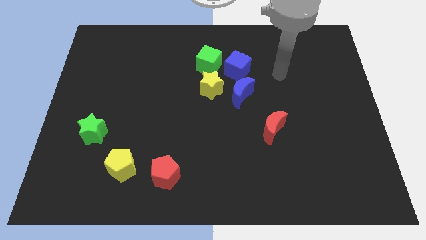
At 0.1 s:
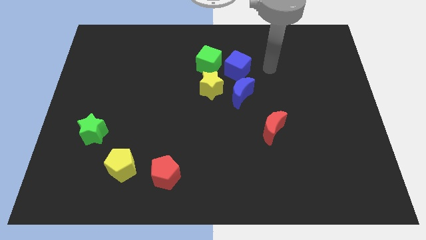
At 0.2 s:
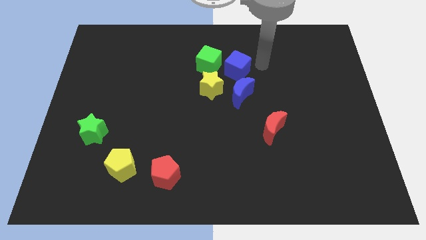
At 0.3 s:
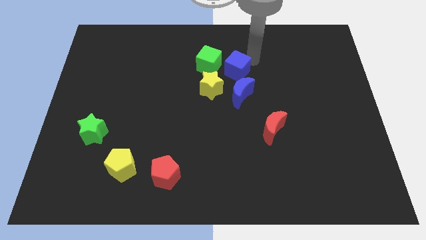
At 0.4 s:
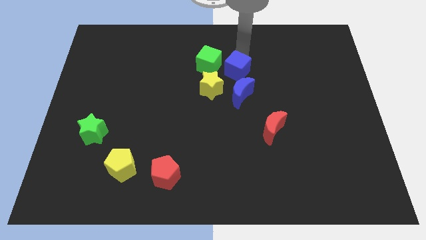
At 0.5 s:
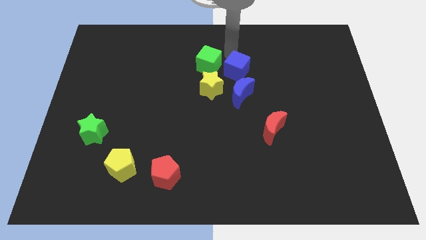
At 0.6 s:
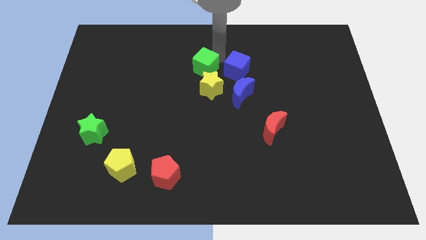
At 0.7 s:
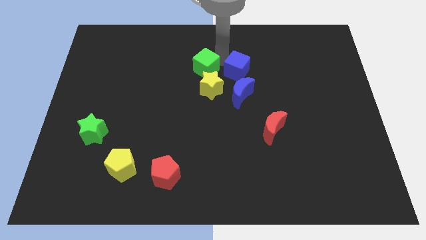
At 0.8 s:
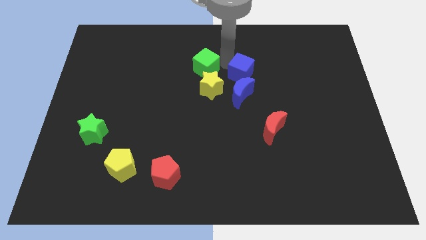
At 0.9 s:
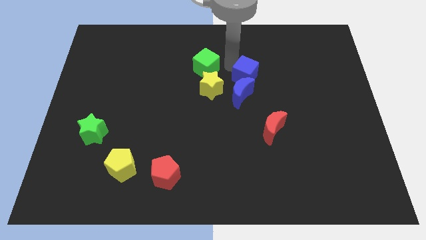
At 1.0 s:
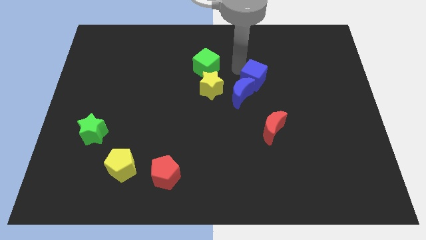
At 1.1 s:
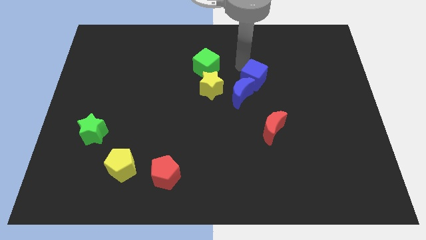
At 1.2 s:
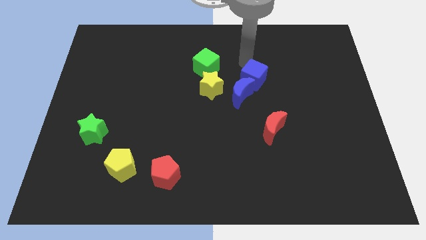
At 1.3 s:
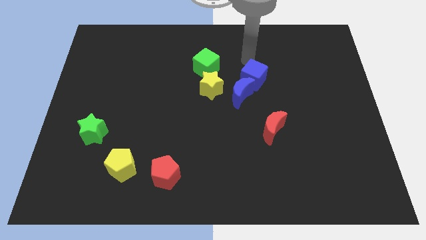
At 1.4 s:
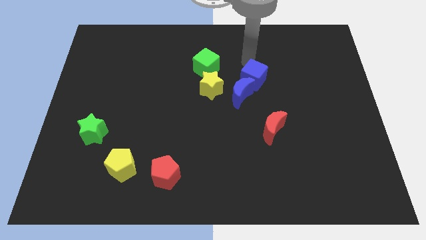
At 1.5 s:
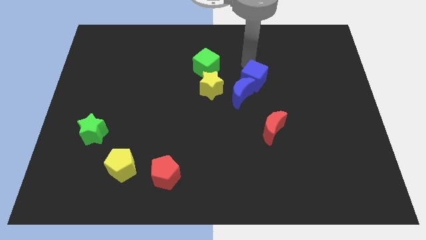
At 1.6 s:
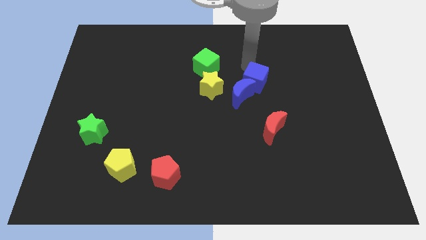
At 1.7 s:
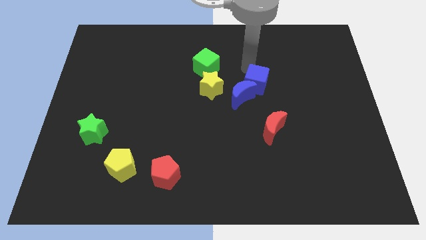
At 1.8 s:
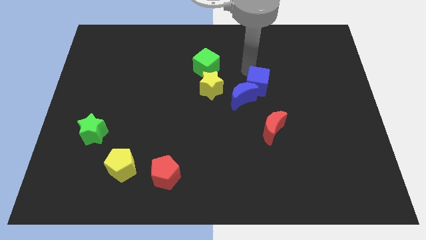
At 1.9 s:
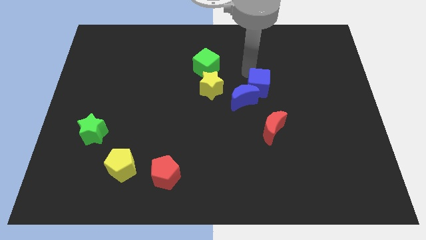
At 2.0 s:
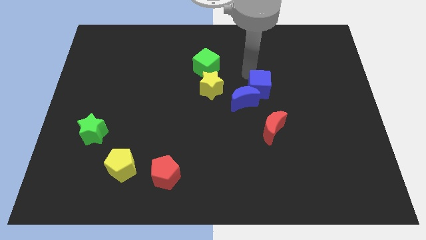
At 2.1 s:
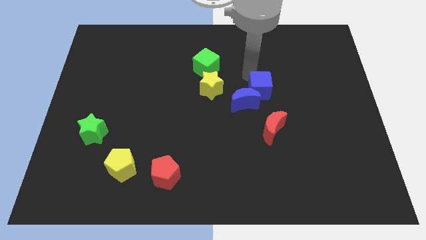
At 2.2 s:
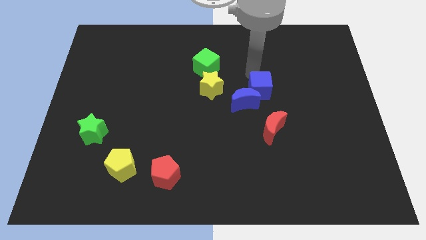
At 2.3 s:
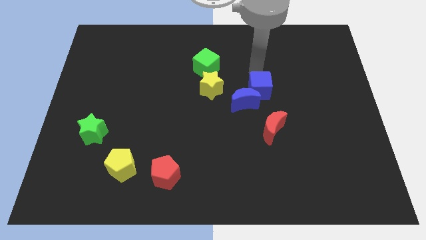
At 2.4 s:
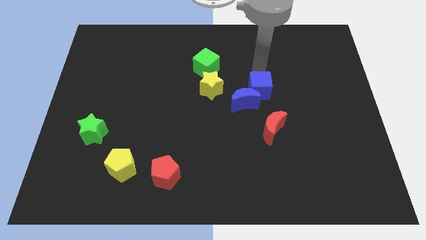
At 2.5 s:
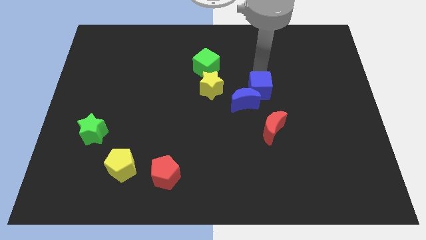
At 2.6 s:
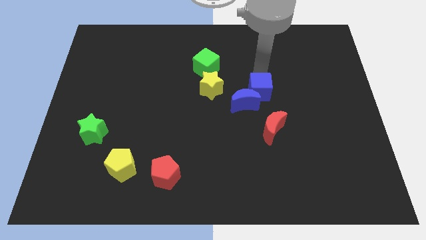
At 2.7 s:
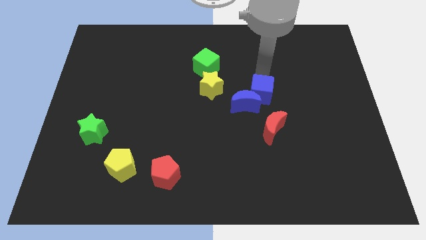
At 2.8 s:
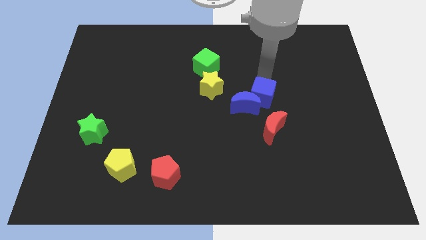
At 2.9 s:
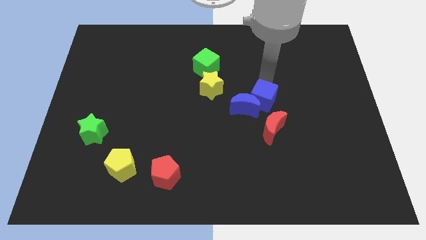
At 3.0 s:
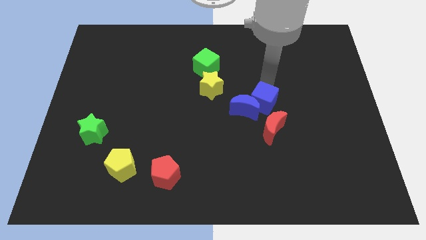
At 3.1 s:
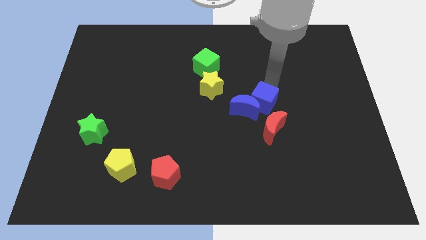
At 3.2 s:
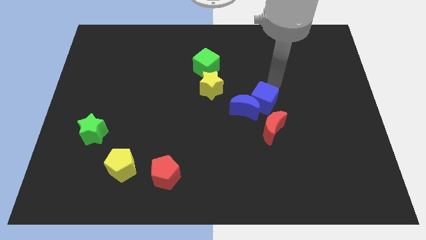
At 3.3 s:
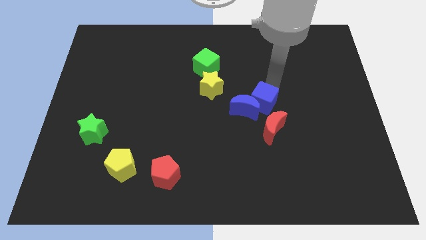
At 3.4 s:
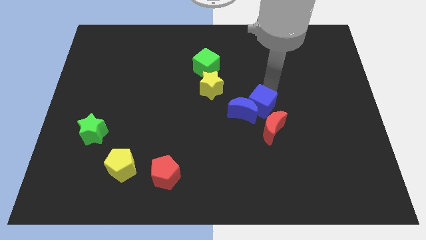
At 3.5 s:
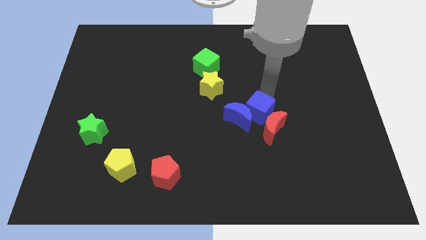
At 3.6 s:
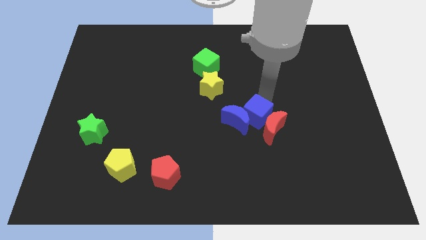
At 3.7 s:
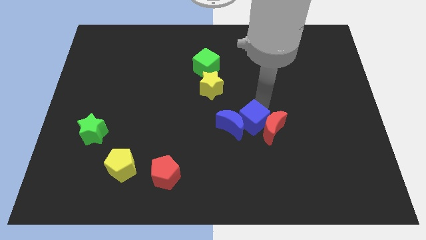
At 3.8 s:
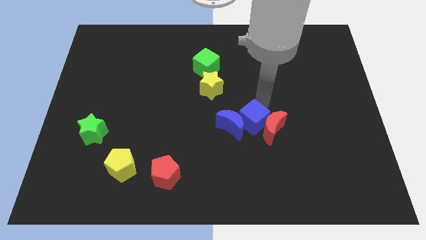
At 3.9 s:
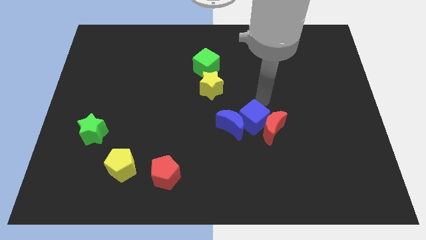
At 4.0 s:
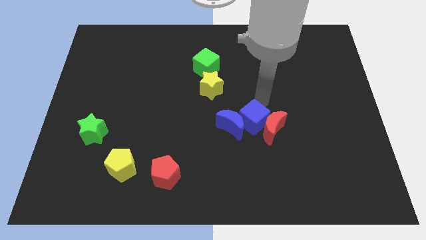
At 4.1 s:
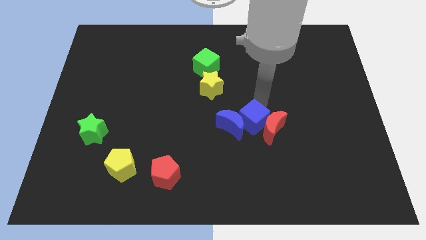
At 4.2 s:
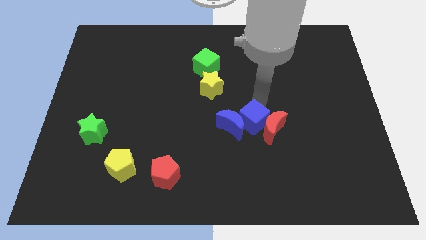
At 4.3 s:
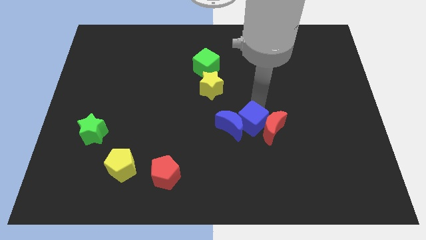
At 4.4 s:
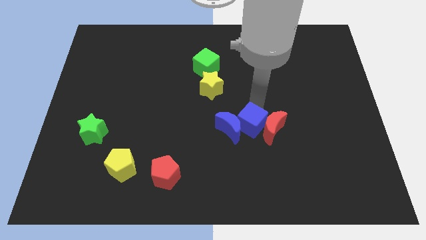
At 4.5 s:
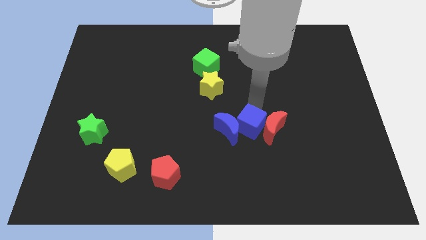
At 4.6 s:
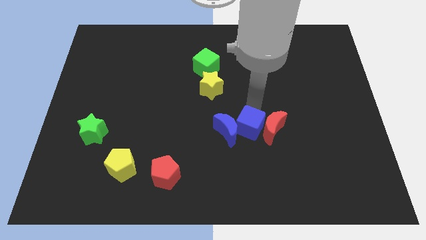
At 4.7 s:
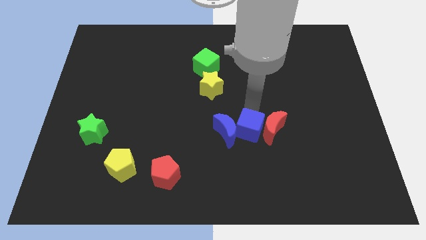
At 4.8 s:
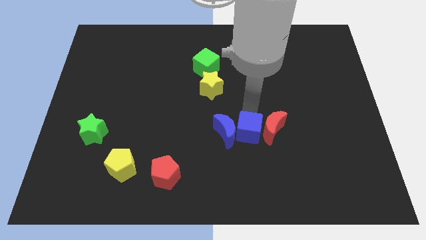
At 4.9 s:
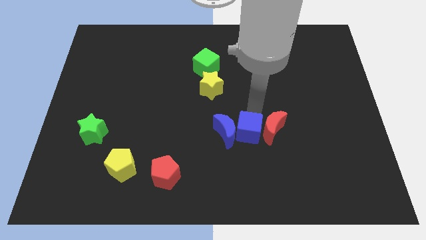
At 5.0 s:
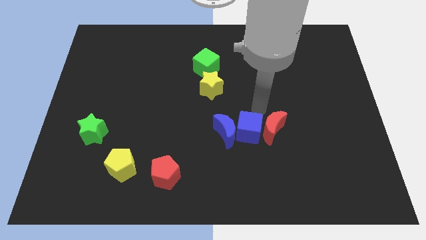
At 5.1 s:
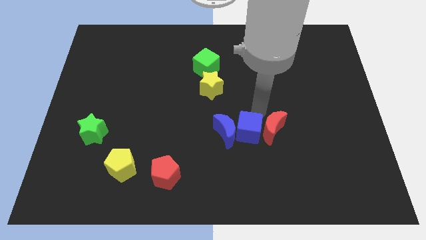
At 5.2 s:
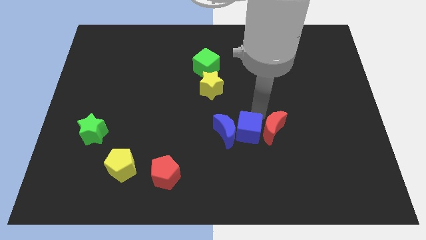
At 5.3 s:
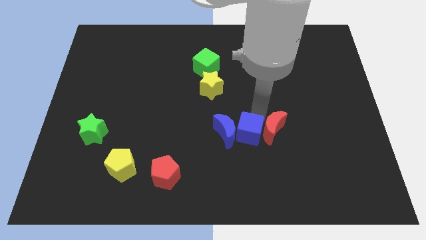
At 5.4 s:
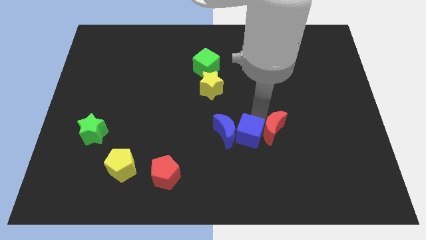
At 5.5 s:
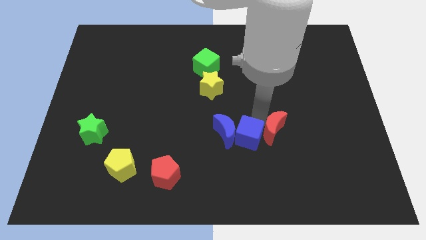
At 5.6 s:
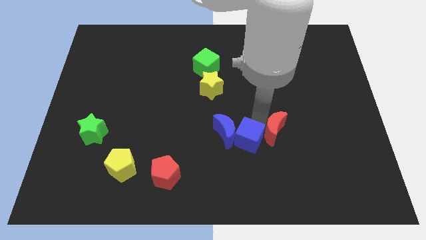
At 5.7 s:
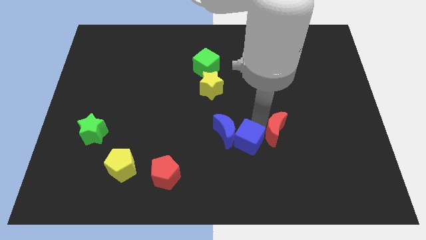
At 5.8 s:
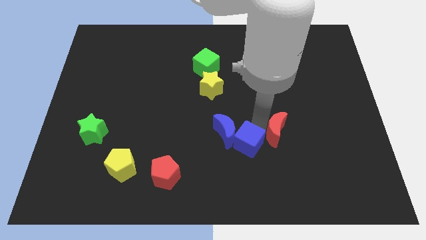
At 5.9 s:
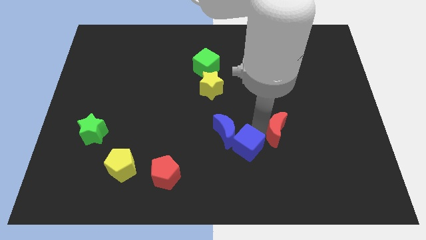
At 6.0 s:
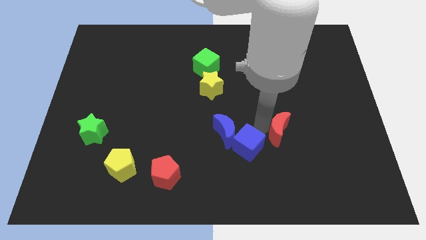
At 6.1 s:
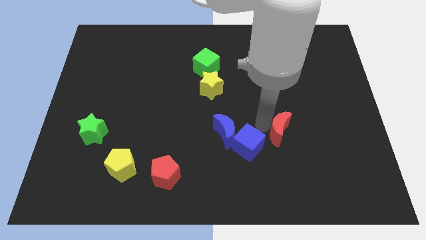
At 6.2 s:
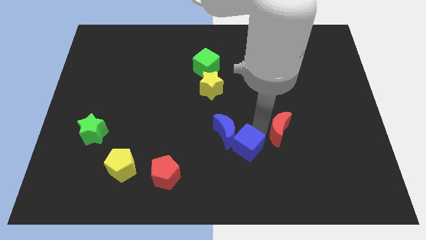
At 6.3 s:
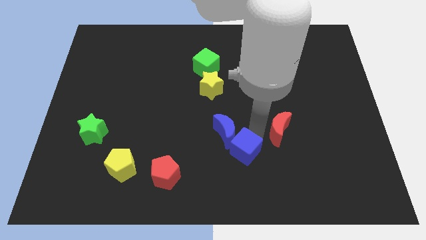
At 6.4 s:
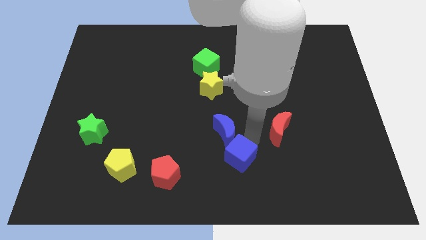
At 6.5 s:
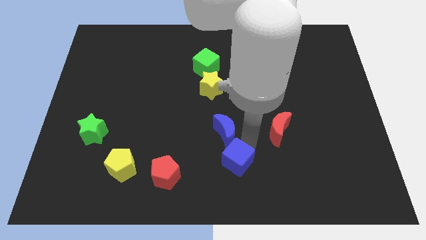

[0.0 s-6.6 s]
put the blue cube to the bottom side
